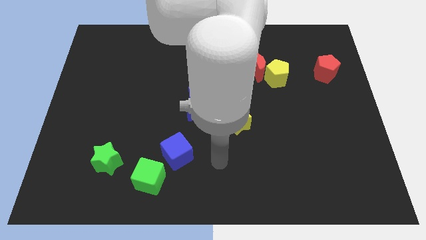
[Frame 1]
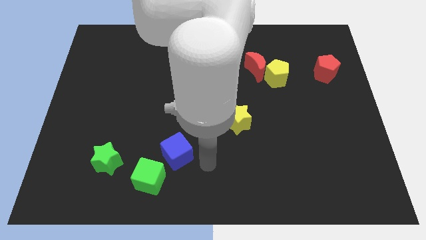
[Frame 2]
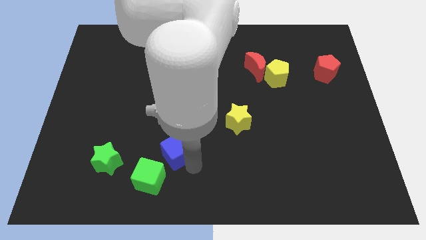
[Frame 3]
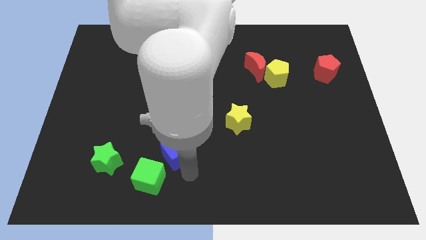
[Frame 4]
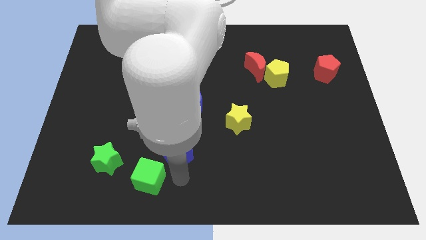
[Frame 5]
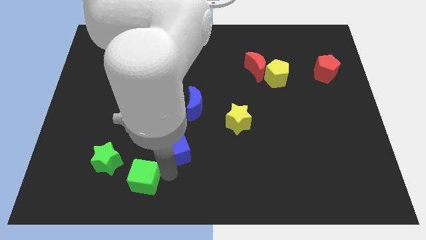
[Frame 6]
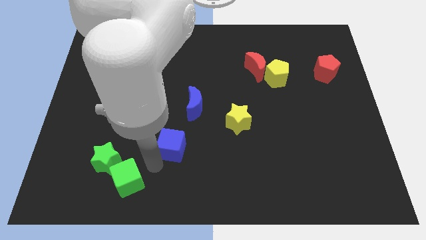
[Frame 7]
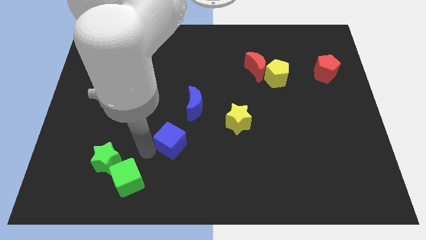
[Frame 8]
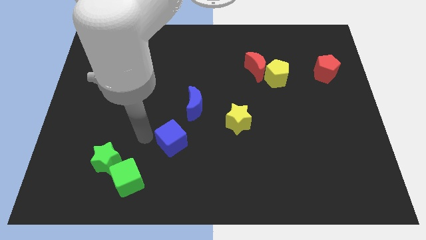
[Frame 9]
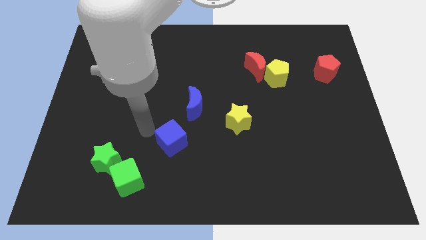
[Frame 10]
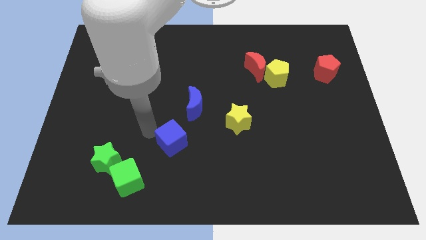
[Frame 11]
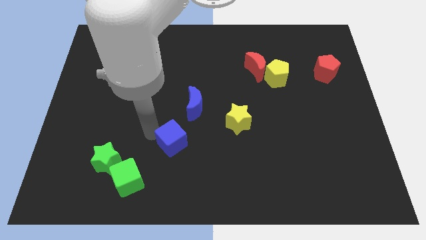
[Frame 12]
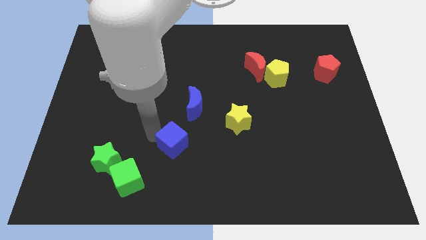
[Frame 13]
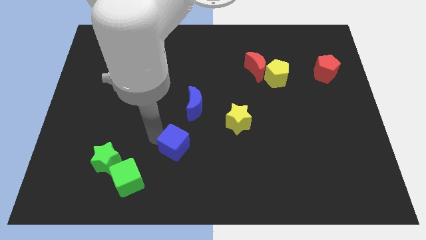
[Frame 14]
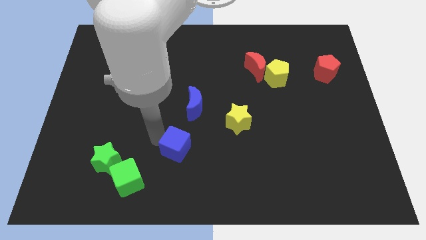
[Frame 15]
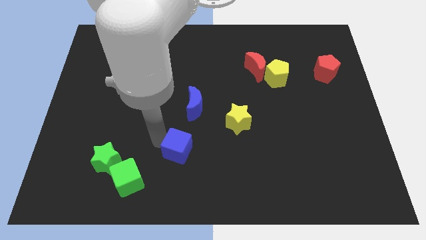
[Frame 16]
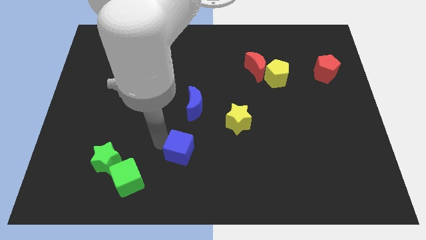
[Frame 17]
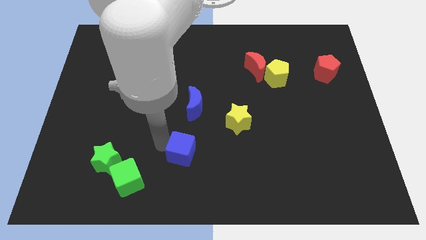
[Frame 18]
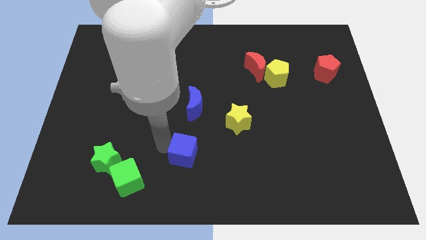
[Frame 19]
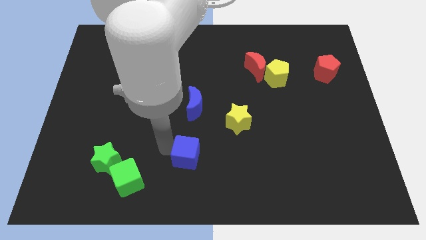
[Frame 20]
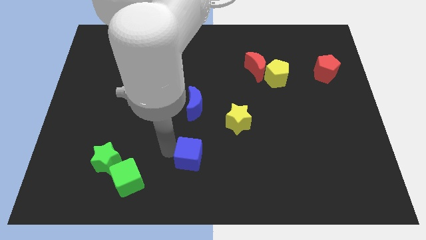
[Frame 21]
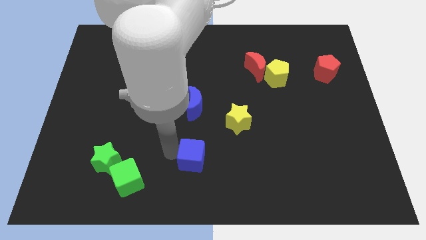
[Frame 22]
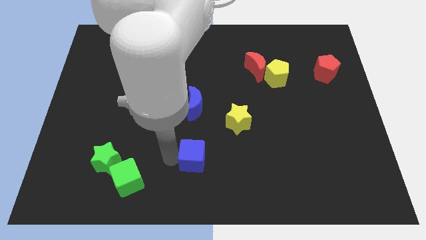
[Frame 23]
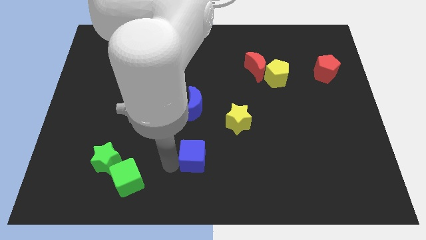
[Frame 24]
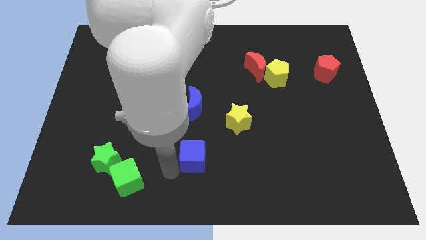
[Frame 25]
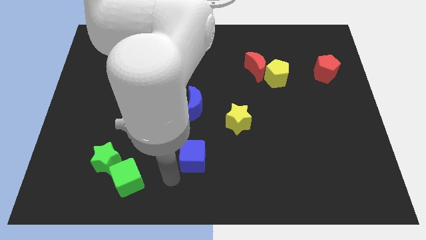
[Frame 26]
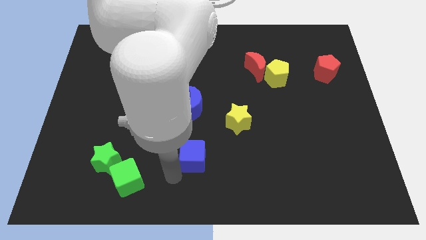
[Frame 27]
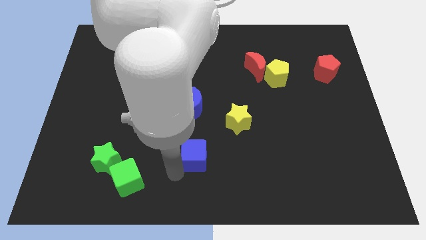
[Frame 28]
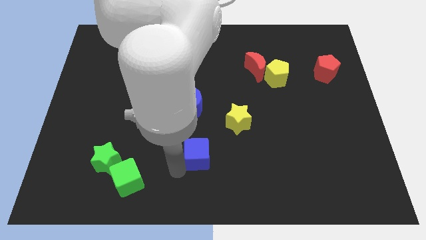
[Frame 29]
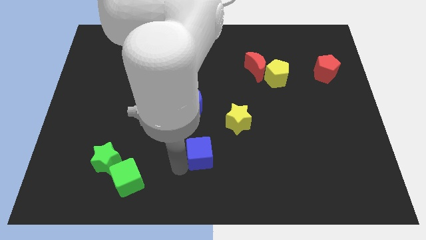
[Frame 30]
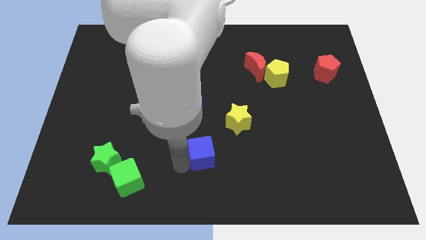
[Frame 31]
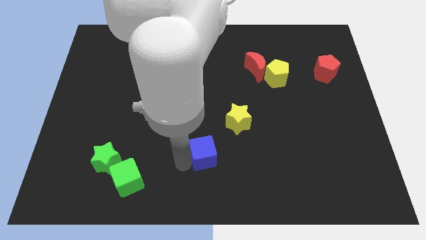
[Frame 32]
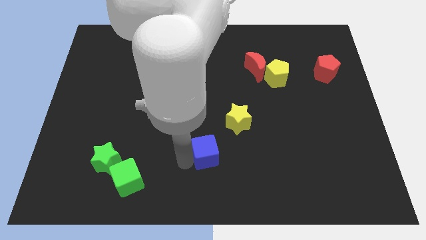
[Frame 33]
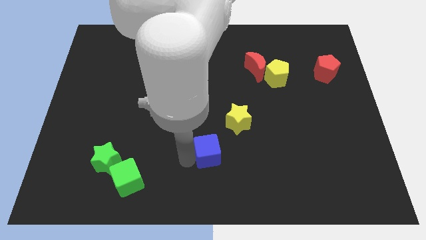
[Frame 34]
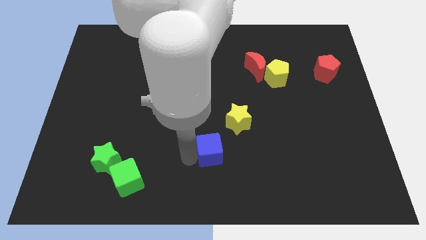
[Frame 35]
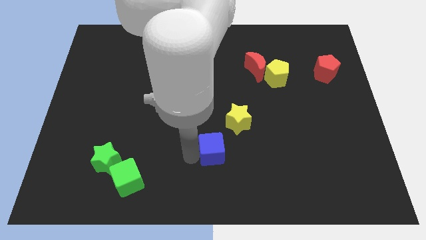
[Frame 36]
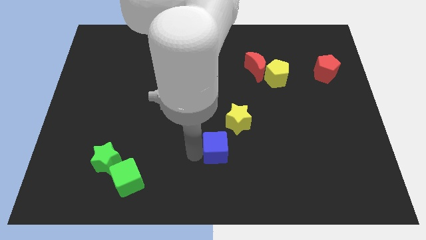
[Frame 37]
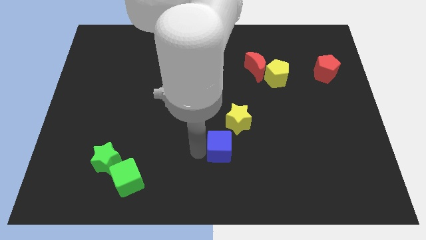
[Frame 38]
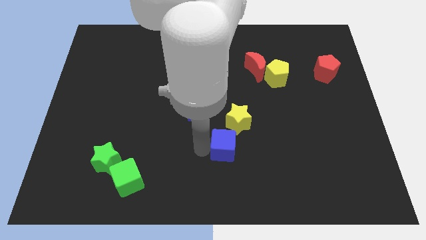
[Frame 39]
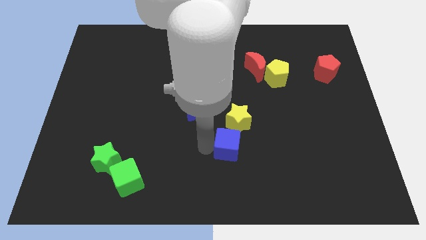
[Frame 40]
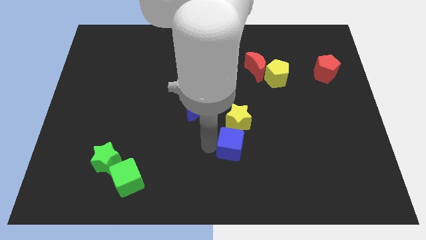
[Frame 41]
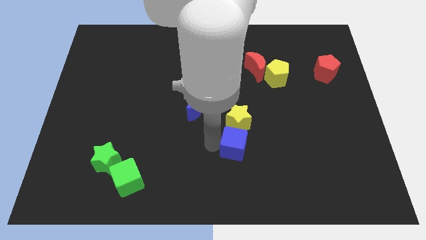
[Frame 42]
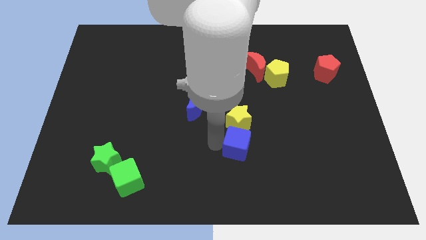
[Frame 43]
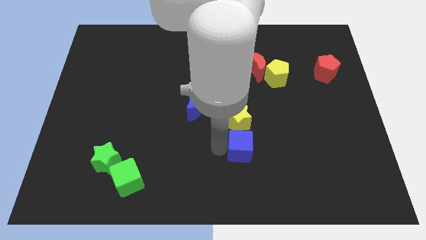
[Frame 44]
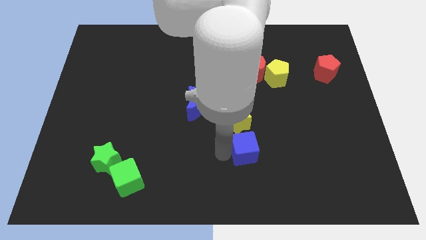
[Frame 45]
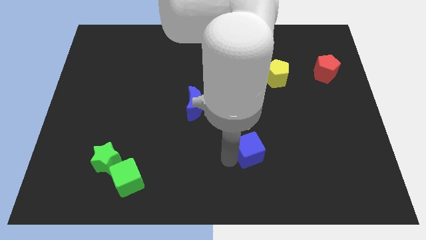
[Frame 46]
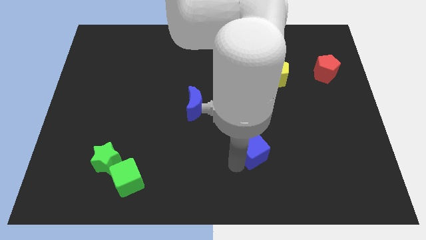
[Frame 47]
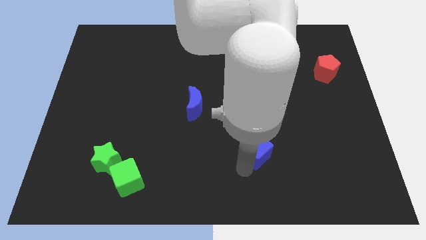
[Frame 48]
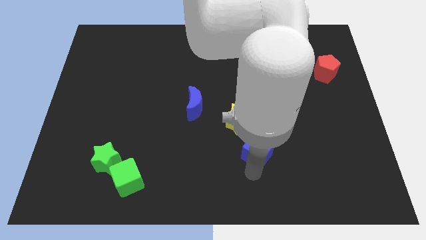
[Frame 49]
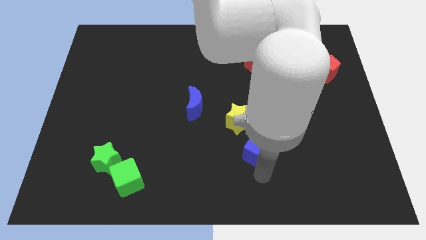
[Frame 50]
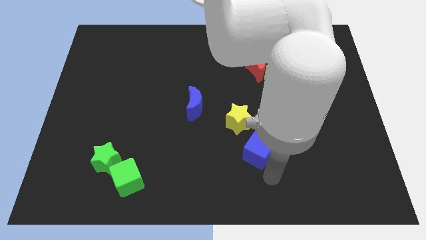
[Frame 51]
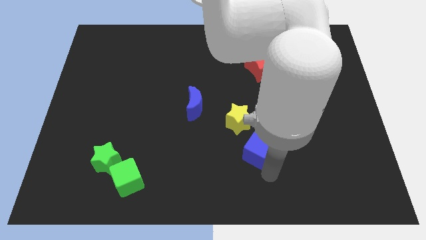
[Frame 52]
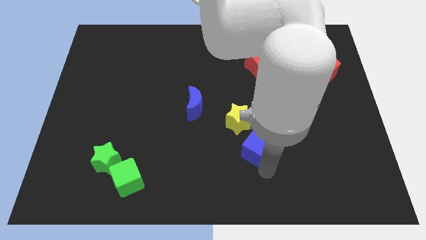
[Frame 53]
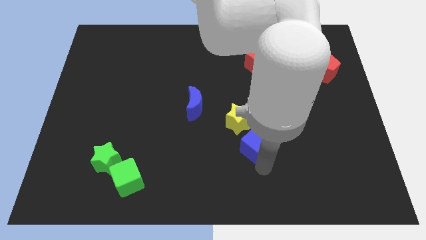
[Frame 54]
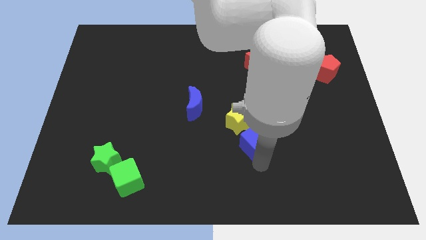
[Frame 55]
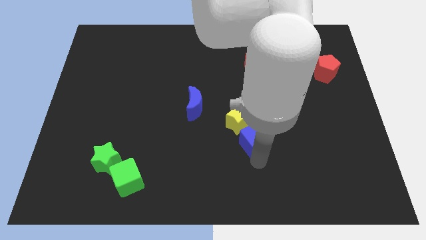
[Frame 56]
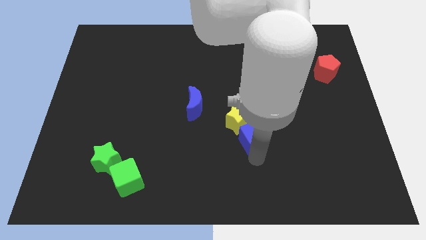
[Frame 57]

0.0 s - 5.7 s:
put the blue cube close to the yellow star

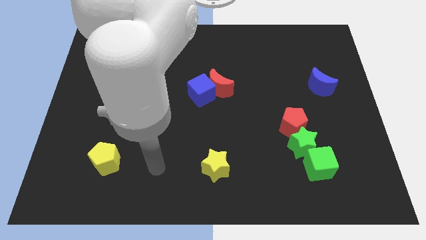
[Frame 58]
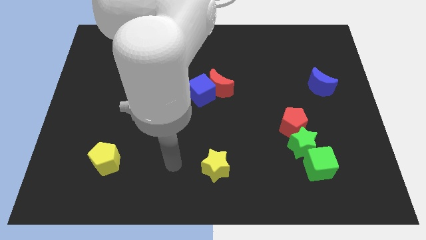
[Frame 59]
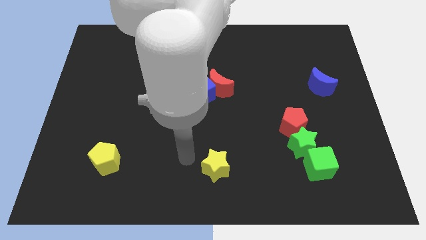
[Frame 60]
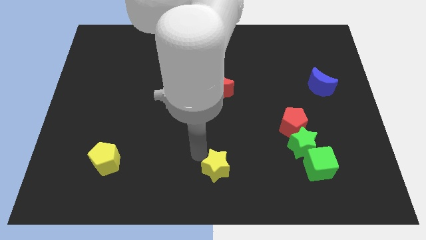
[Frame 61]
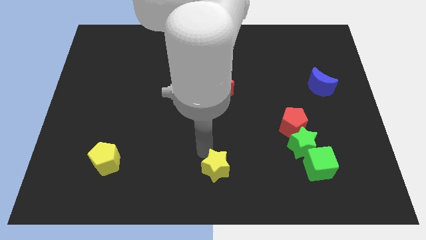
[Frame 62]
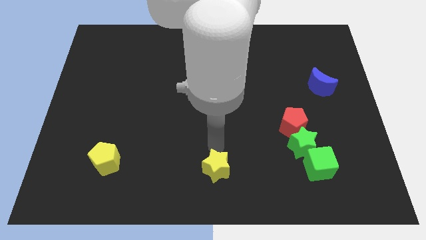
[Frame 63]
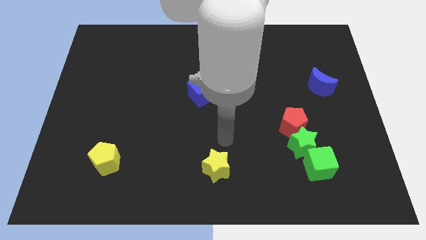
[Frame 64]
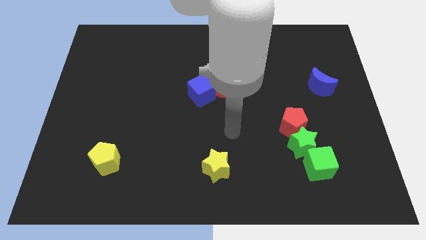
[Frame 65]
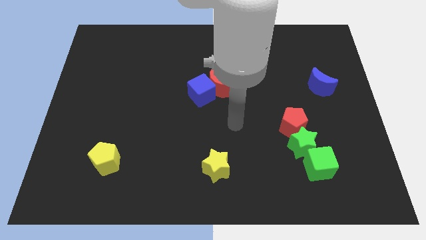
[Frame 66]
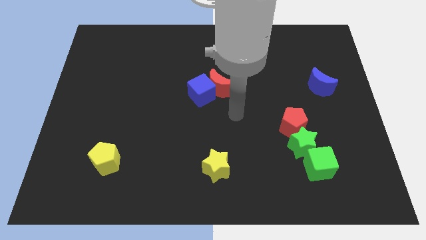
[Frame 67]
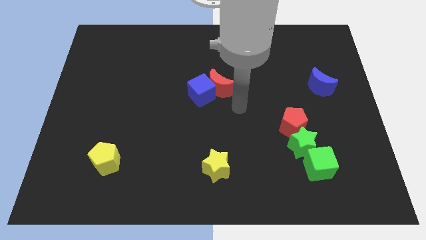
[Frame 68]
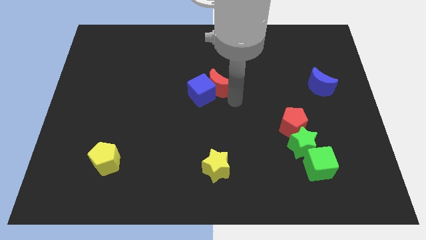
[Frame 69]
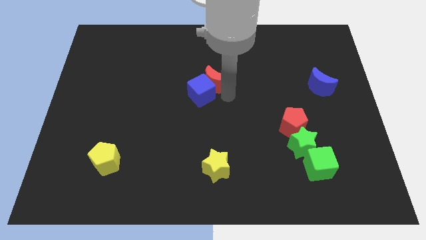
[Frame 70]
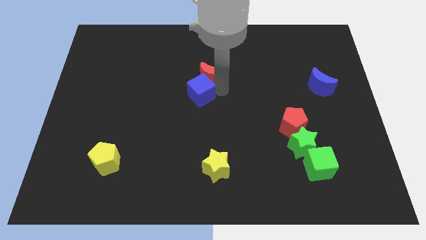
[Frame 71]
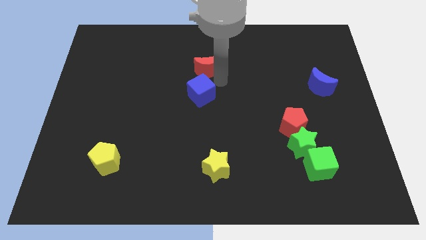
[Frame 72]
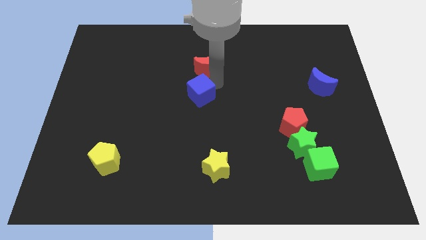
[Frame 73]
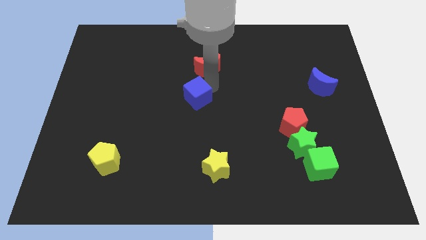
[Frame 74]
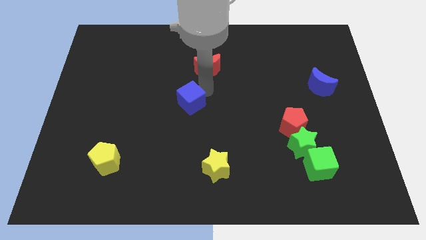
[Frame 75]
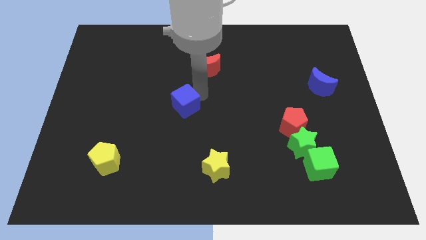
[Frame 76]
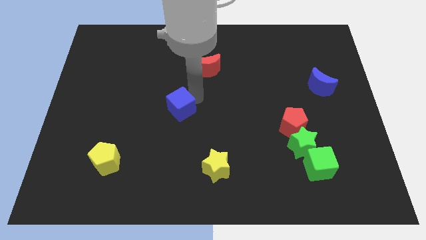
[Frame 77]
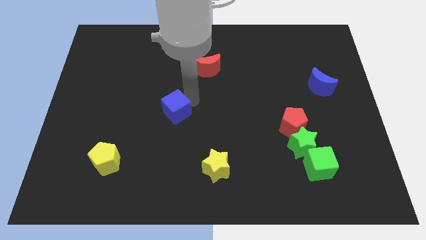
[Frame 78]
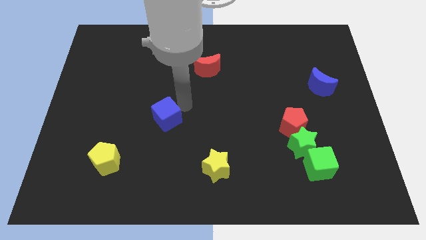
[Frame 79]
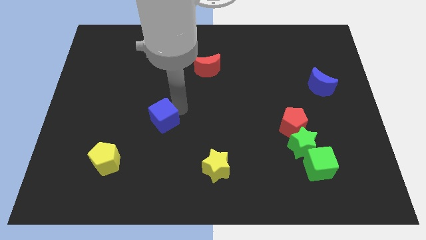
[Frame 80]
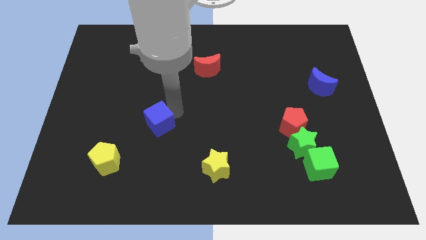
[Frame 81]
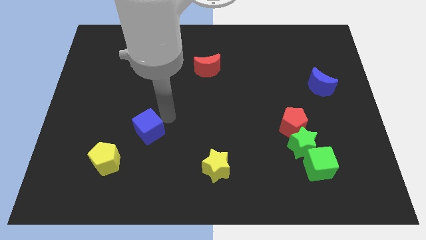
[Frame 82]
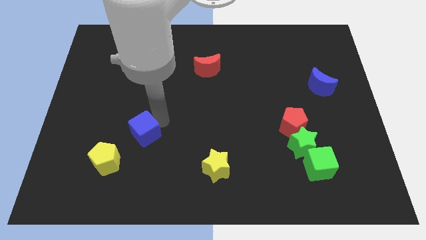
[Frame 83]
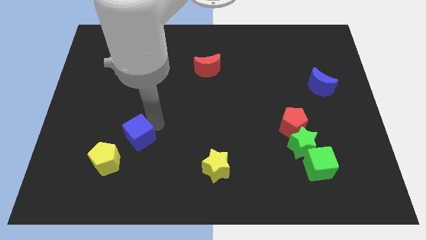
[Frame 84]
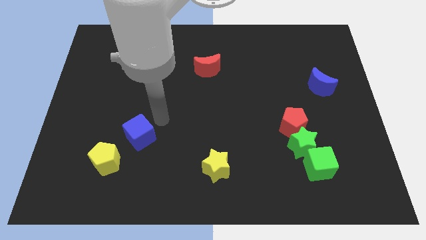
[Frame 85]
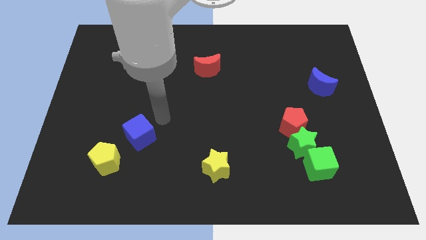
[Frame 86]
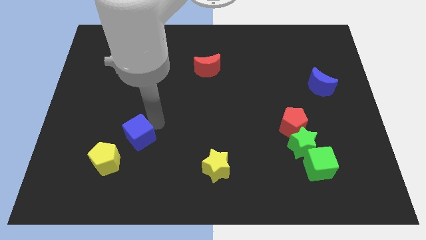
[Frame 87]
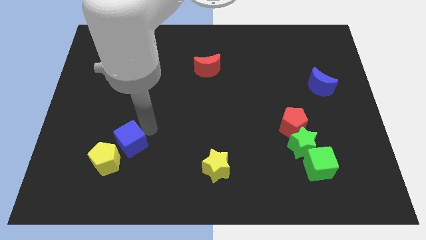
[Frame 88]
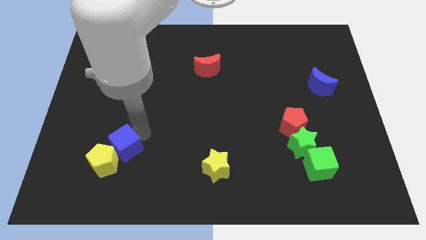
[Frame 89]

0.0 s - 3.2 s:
move the blue cube close to the yellow pentagon
